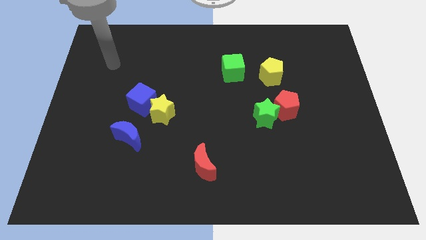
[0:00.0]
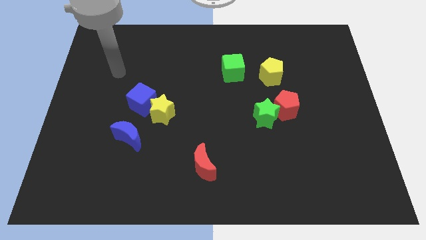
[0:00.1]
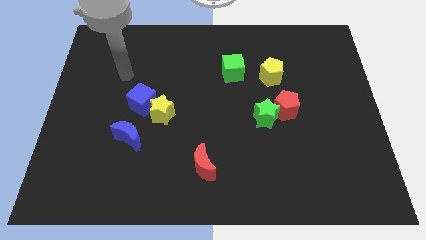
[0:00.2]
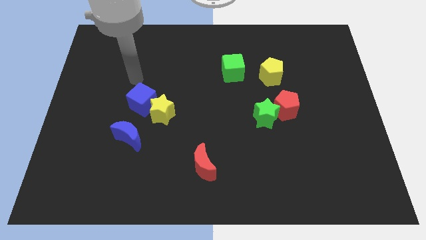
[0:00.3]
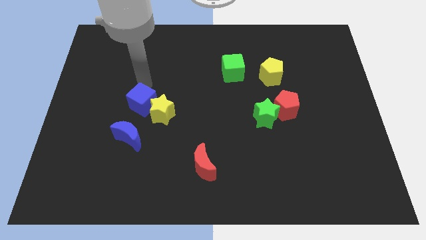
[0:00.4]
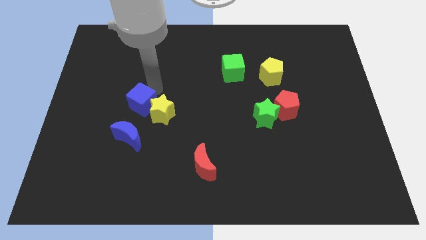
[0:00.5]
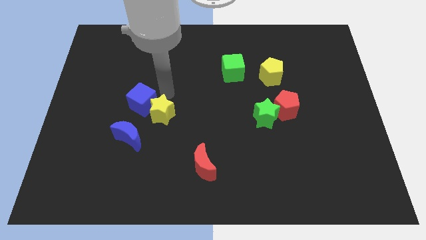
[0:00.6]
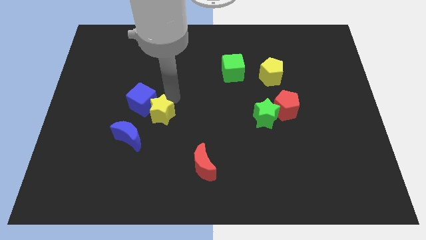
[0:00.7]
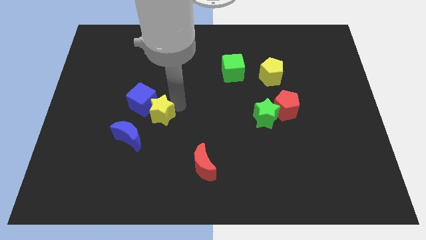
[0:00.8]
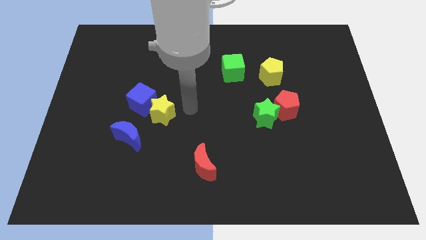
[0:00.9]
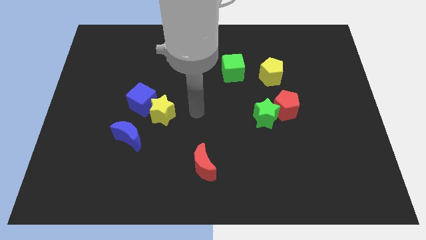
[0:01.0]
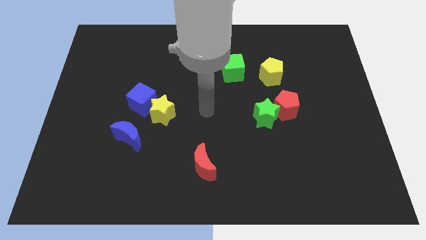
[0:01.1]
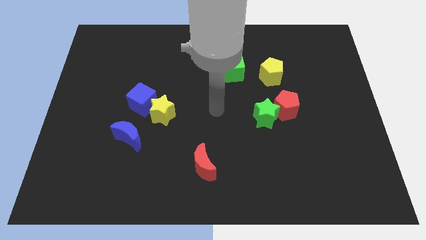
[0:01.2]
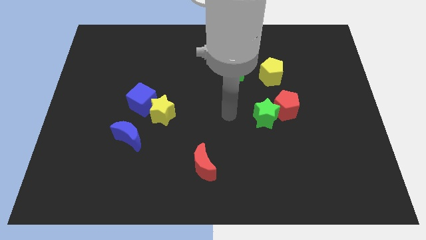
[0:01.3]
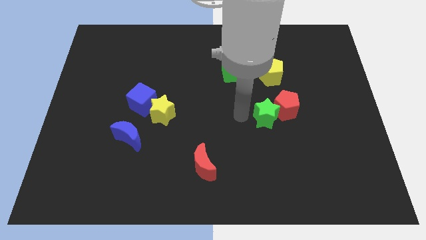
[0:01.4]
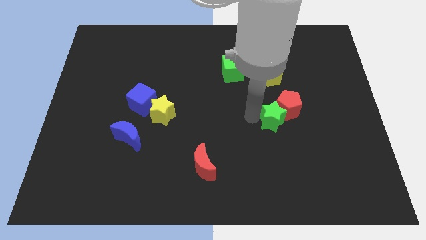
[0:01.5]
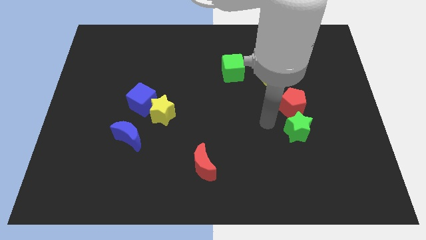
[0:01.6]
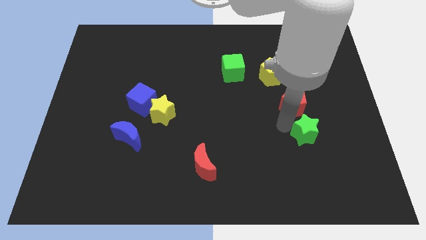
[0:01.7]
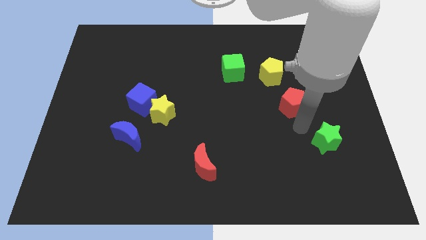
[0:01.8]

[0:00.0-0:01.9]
separate the red pentagon from the green star

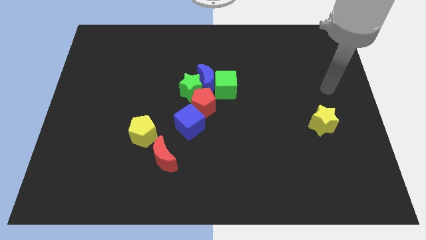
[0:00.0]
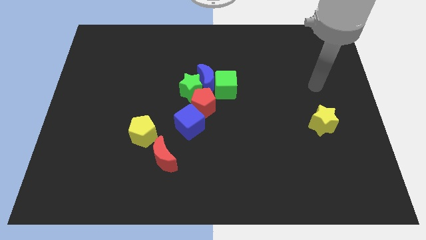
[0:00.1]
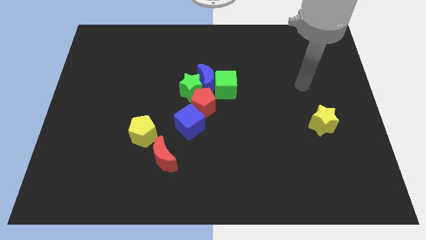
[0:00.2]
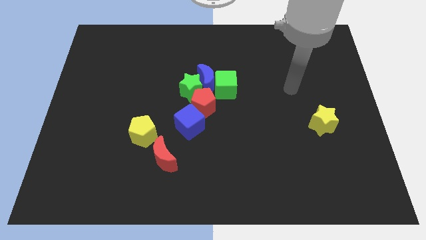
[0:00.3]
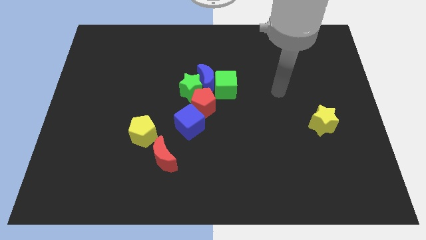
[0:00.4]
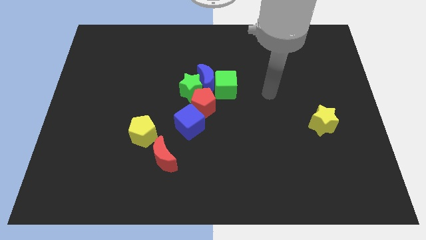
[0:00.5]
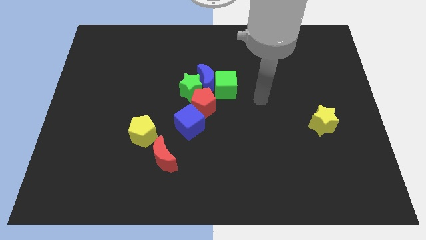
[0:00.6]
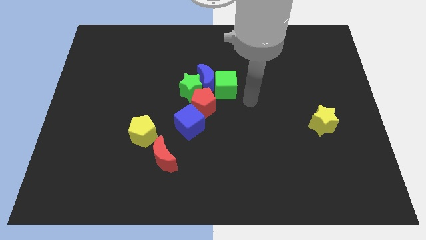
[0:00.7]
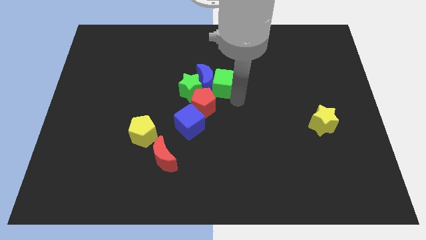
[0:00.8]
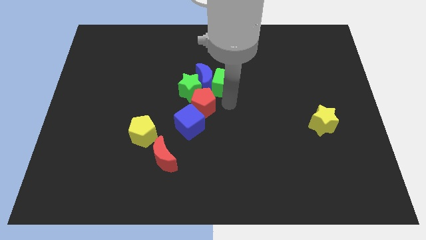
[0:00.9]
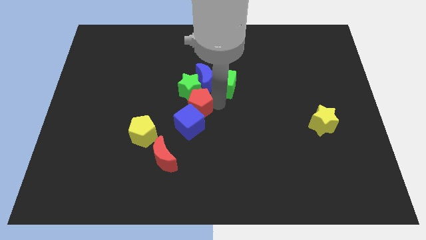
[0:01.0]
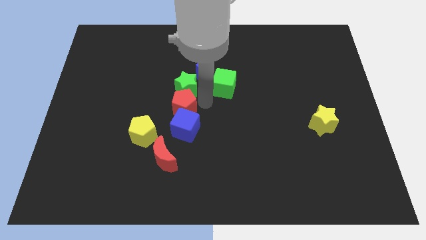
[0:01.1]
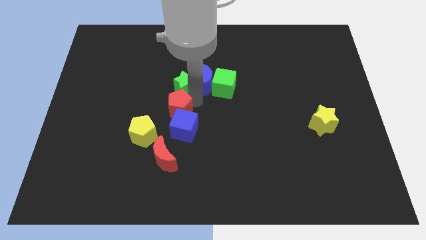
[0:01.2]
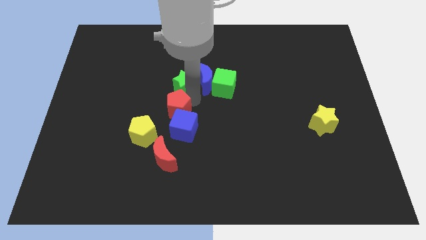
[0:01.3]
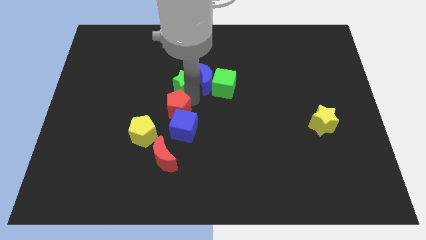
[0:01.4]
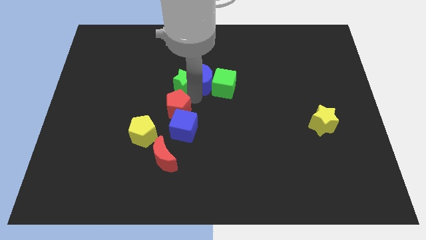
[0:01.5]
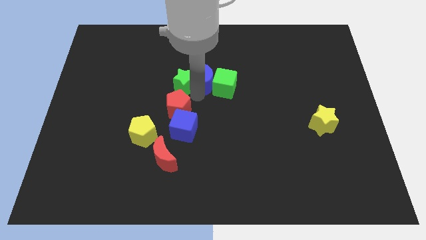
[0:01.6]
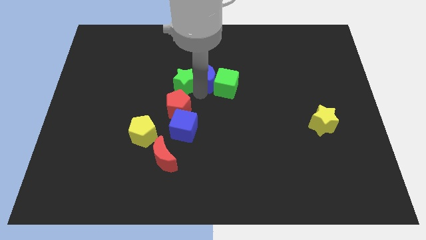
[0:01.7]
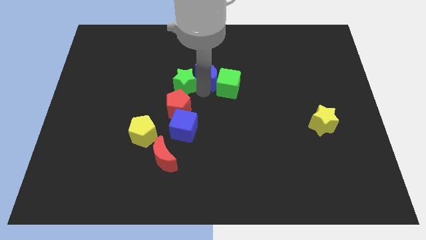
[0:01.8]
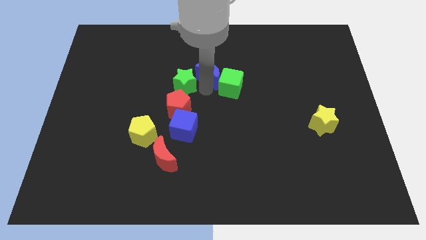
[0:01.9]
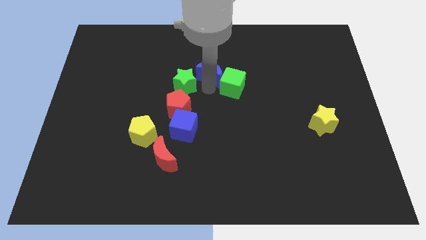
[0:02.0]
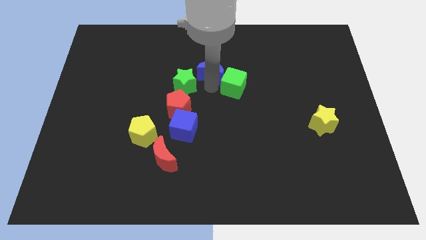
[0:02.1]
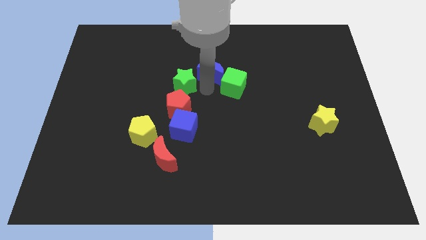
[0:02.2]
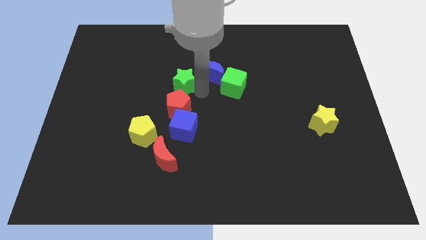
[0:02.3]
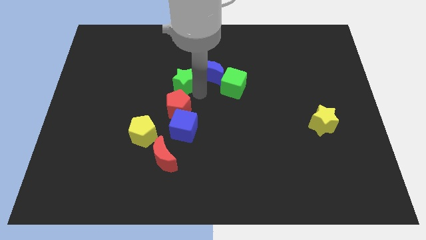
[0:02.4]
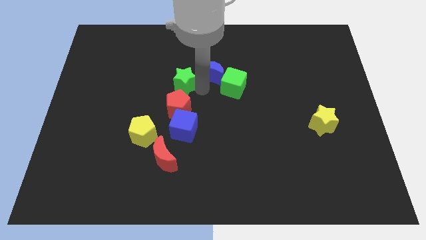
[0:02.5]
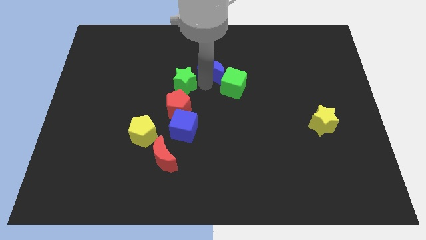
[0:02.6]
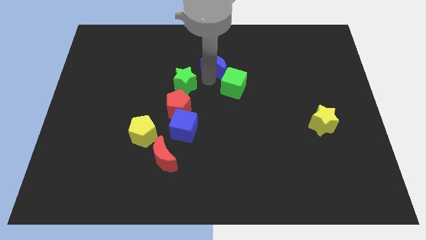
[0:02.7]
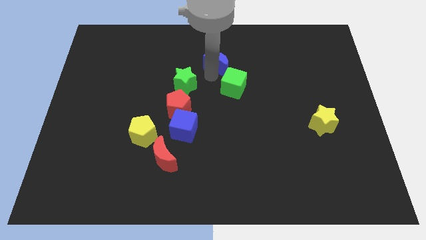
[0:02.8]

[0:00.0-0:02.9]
pull the blue moon apart from the green cube, green star, and red pentagon

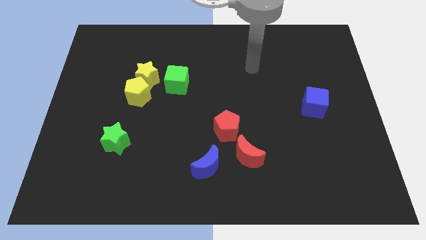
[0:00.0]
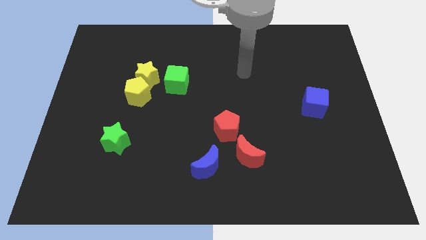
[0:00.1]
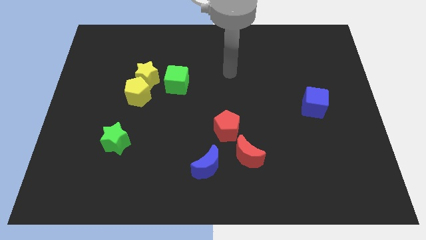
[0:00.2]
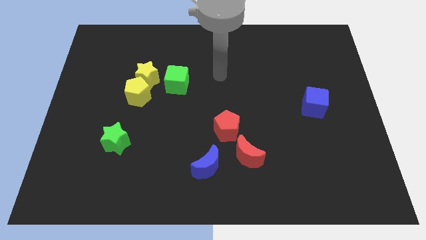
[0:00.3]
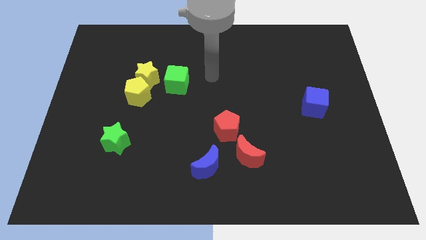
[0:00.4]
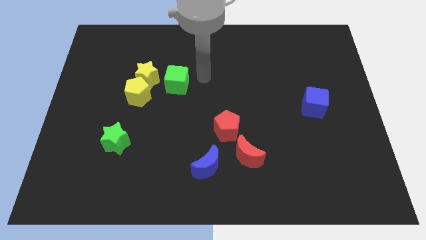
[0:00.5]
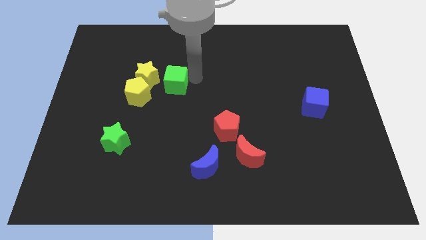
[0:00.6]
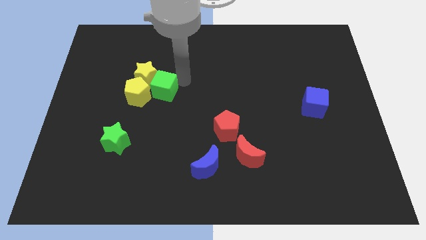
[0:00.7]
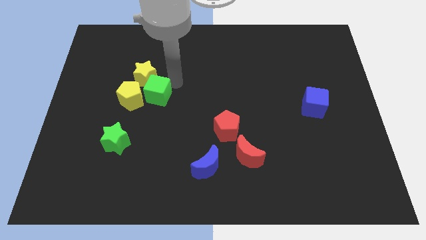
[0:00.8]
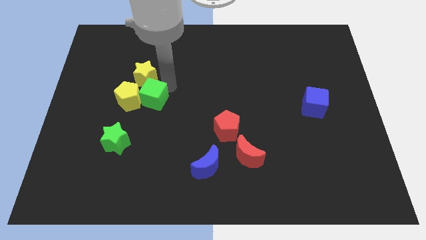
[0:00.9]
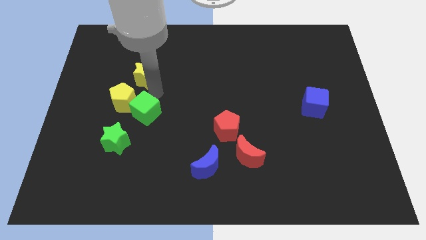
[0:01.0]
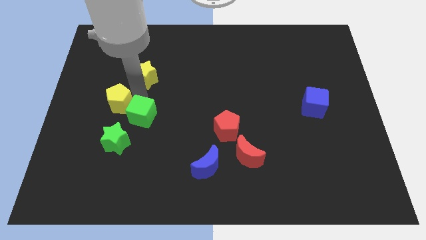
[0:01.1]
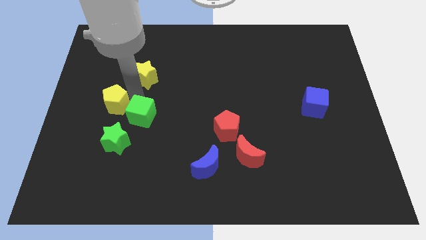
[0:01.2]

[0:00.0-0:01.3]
separate the yellow star from the yellow pentagon and green cube

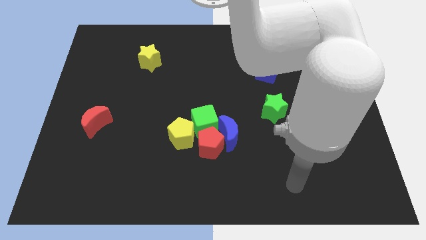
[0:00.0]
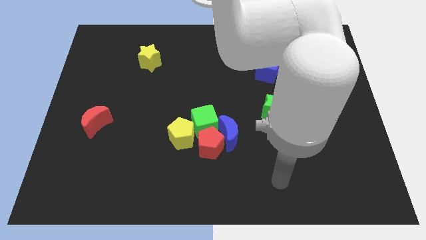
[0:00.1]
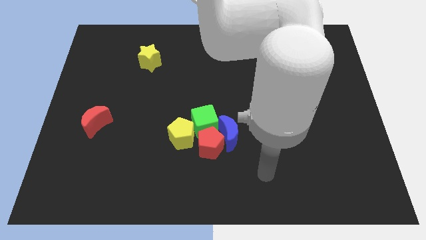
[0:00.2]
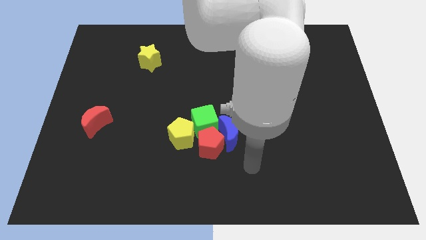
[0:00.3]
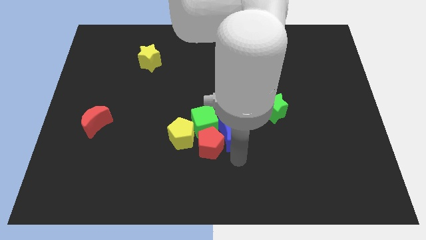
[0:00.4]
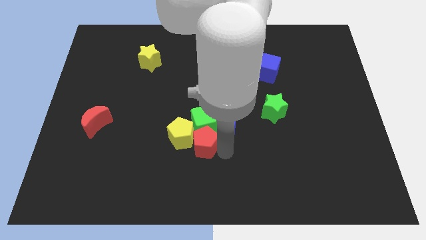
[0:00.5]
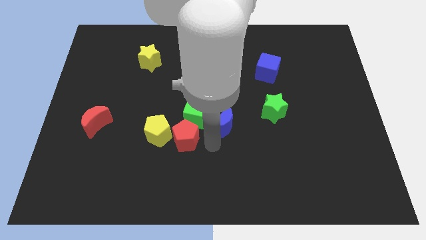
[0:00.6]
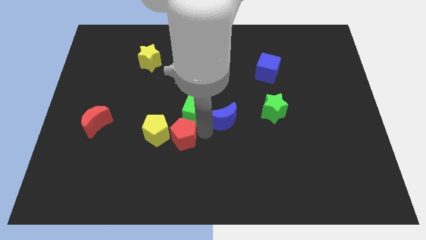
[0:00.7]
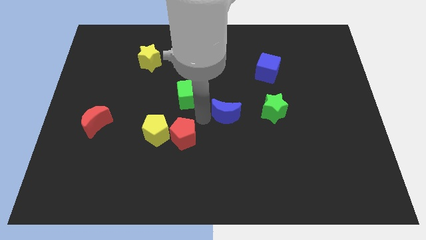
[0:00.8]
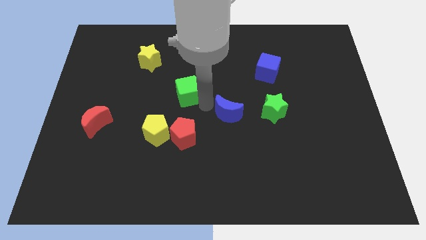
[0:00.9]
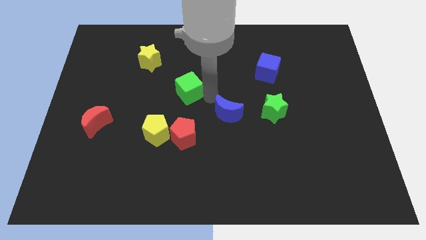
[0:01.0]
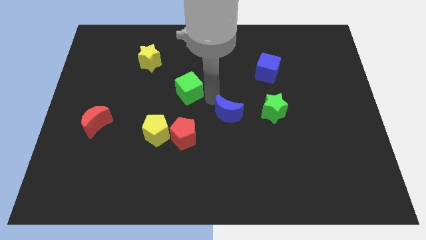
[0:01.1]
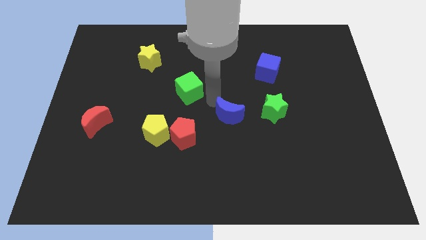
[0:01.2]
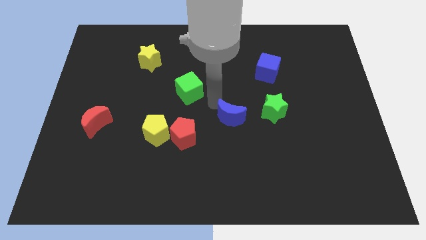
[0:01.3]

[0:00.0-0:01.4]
separate the blue moon from the red pentagon and green cube

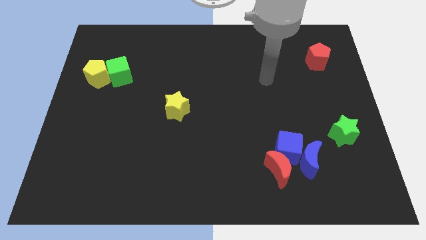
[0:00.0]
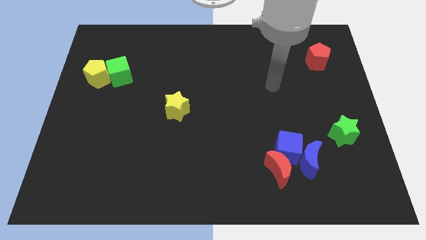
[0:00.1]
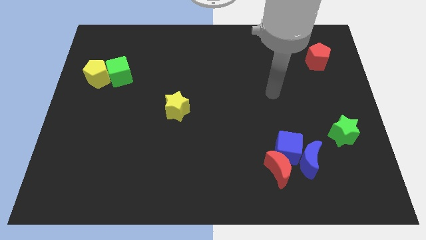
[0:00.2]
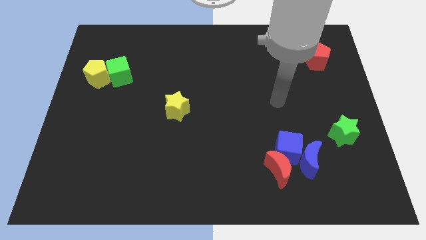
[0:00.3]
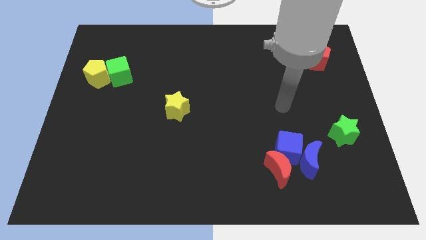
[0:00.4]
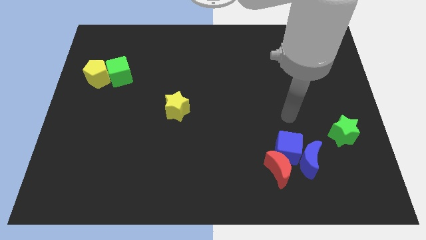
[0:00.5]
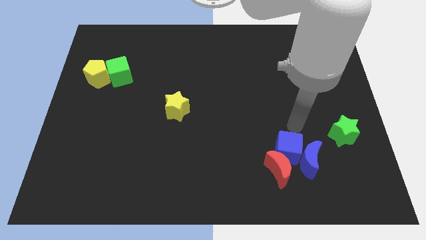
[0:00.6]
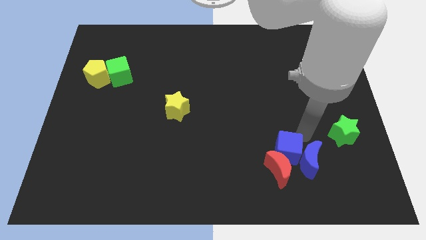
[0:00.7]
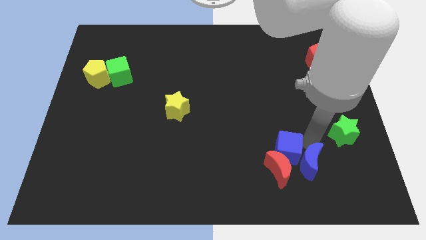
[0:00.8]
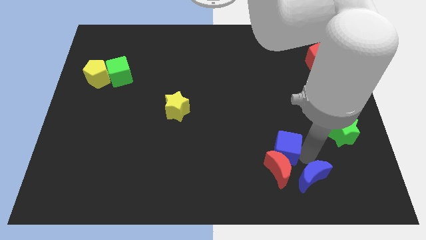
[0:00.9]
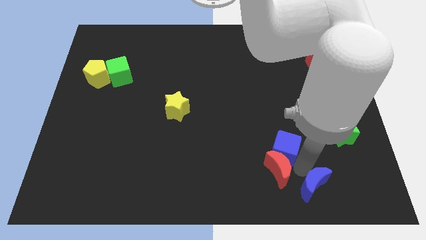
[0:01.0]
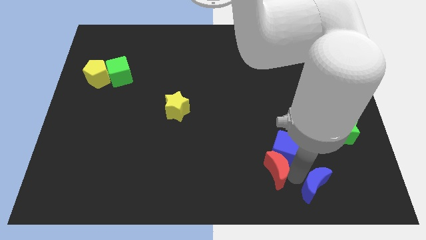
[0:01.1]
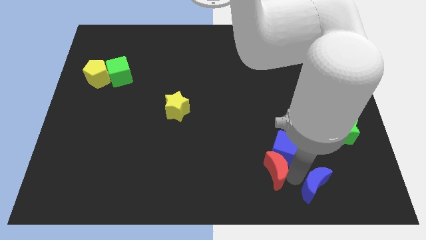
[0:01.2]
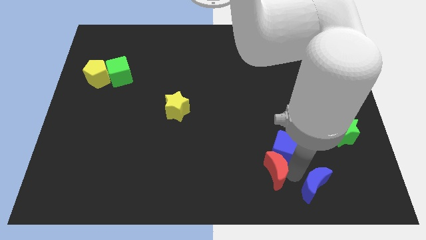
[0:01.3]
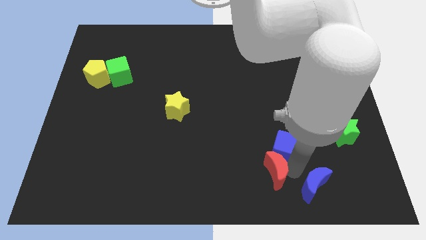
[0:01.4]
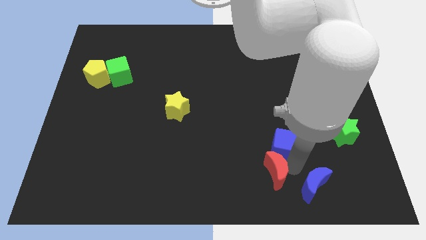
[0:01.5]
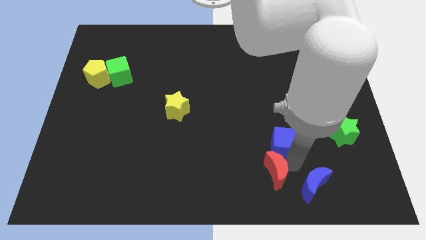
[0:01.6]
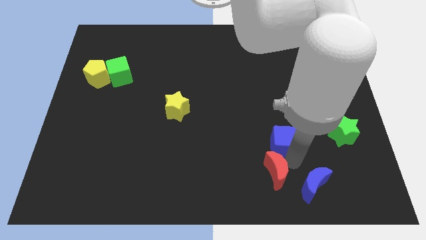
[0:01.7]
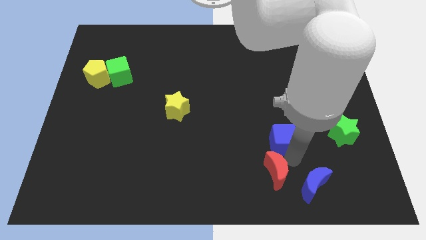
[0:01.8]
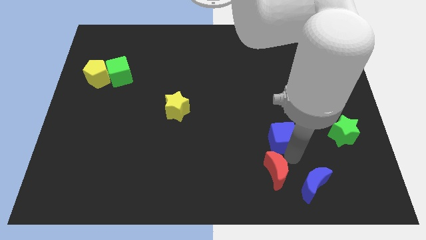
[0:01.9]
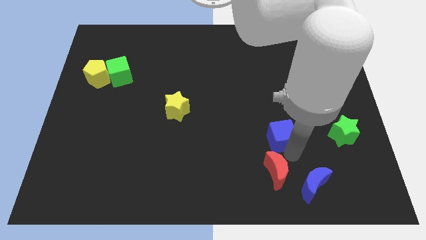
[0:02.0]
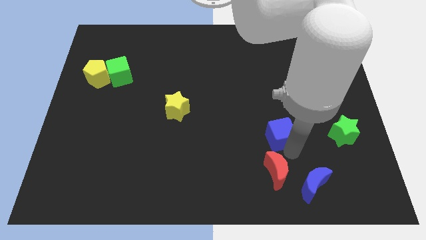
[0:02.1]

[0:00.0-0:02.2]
pull the blue cube apart from the blue moon and red moon
